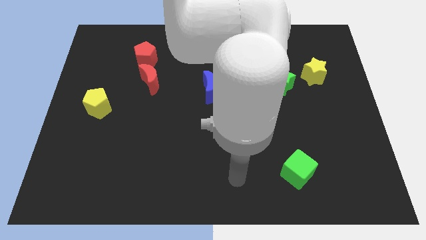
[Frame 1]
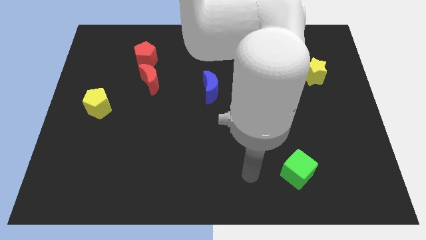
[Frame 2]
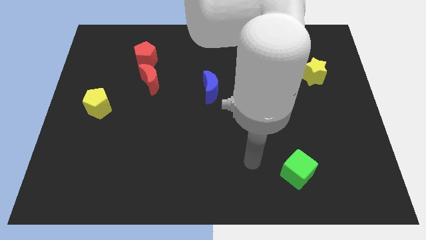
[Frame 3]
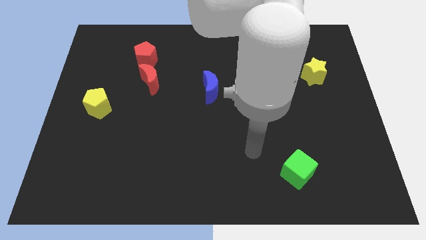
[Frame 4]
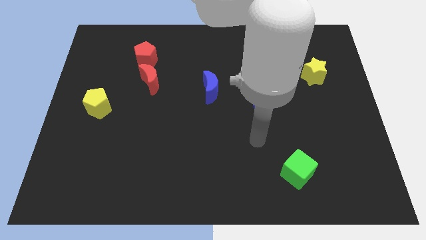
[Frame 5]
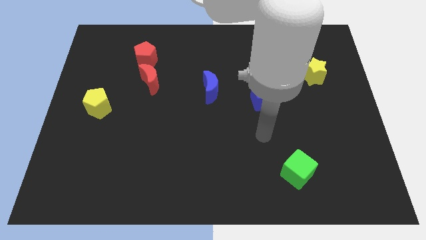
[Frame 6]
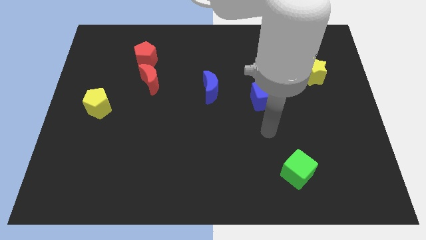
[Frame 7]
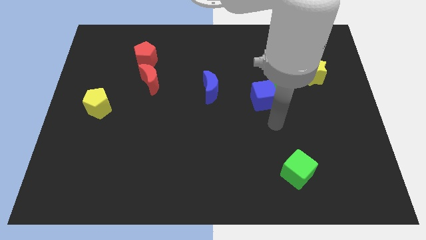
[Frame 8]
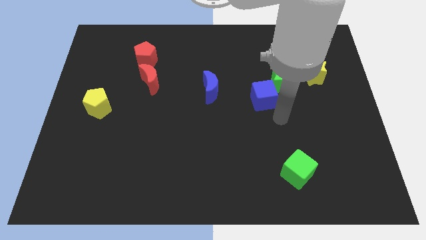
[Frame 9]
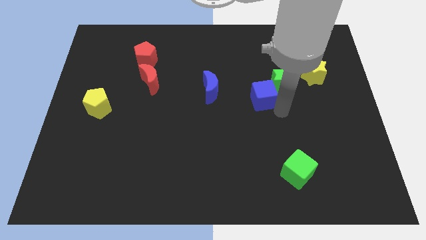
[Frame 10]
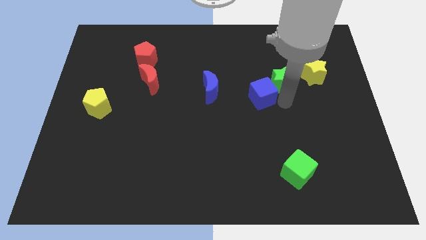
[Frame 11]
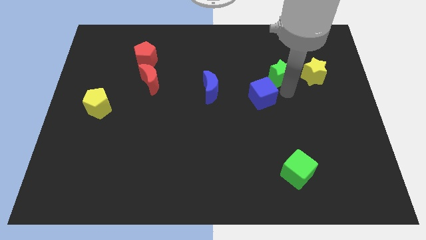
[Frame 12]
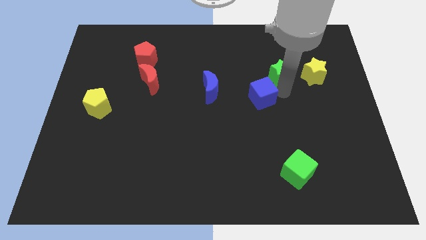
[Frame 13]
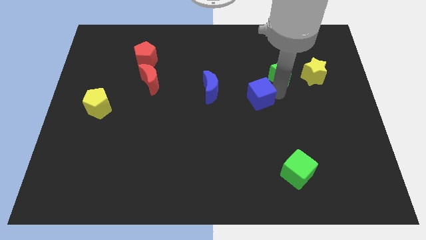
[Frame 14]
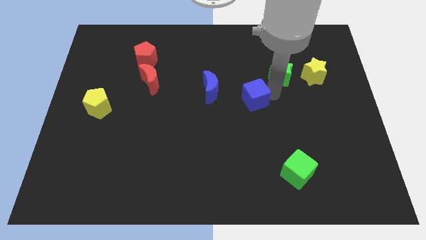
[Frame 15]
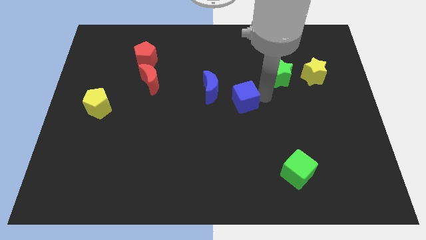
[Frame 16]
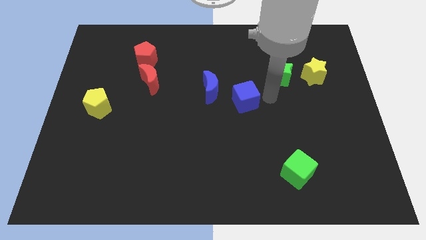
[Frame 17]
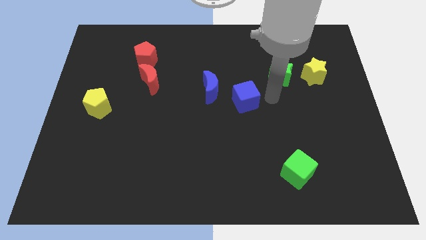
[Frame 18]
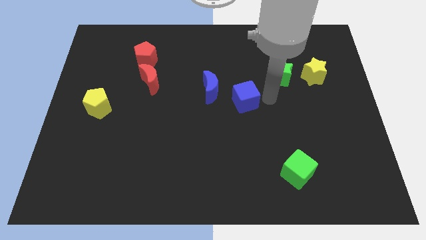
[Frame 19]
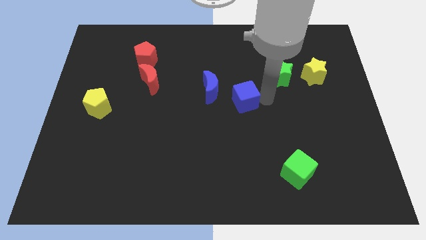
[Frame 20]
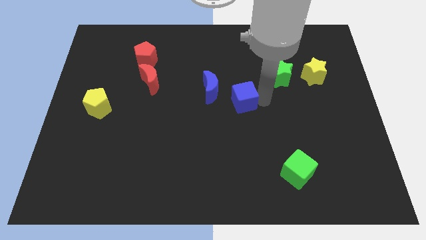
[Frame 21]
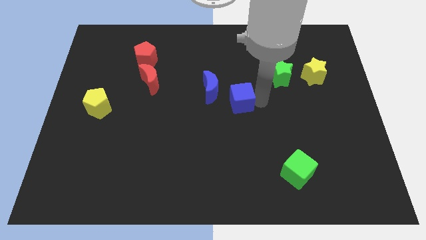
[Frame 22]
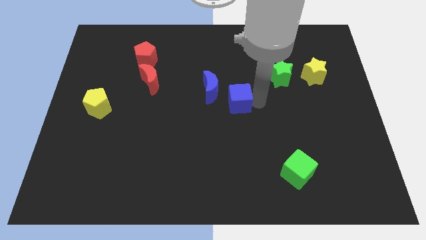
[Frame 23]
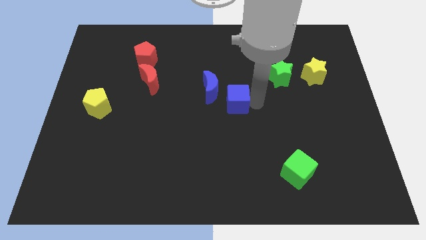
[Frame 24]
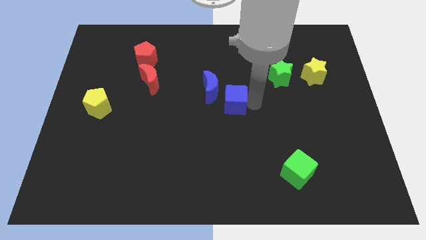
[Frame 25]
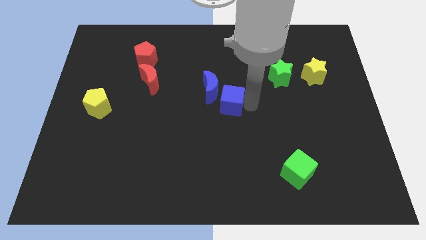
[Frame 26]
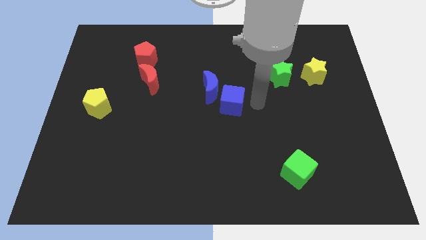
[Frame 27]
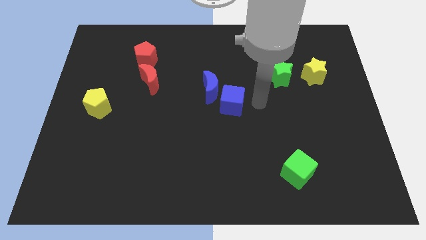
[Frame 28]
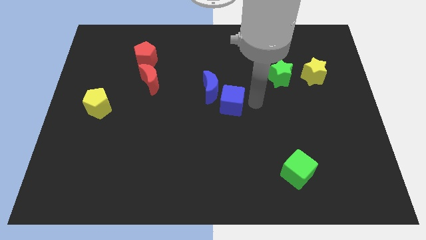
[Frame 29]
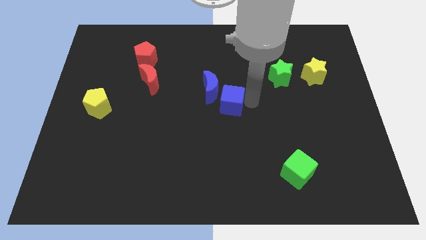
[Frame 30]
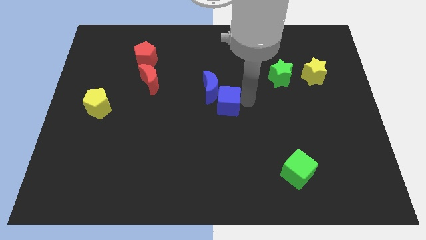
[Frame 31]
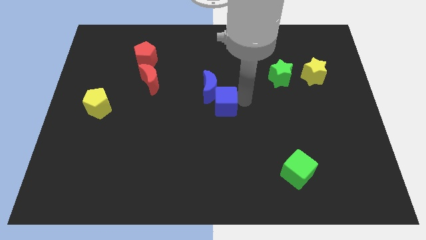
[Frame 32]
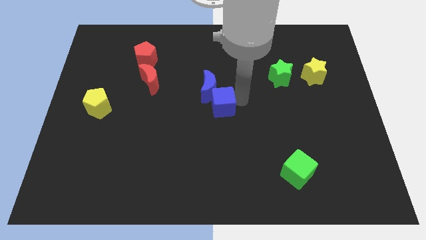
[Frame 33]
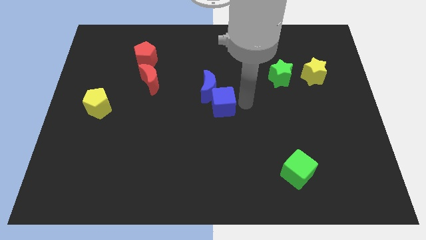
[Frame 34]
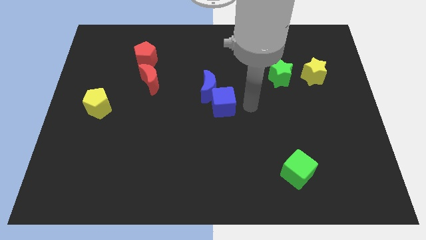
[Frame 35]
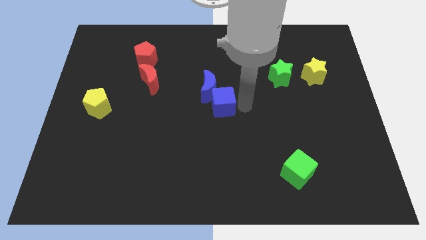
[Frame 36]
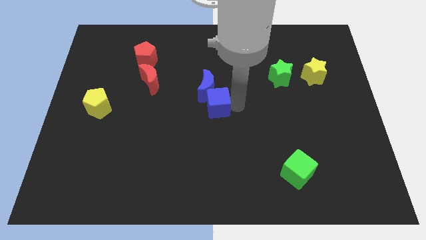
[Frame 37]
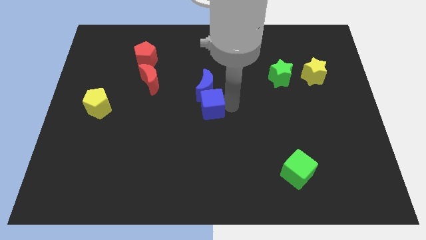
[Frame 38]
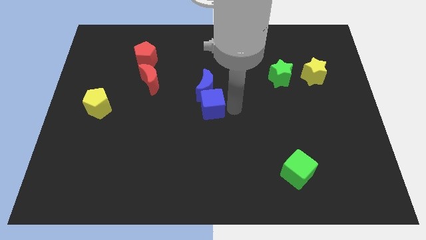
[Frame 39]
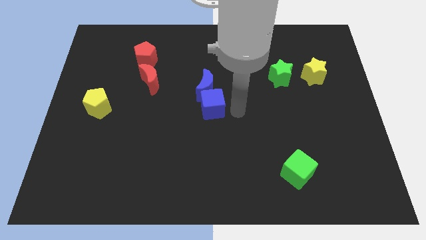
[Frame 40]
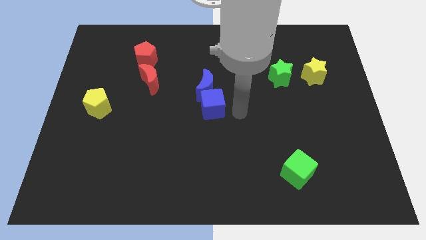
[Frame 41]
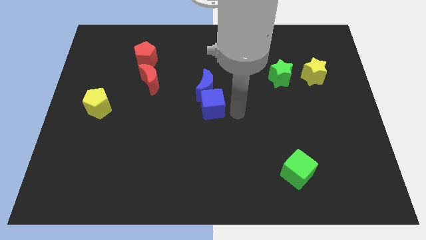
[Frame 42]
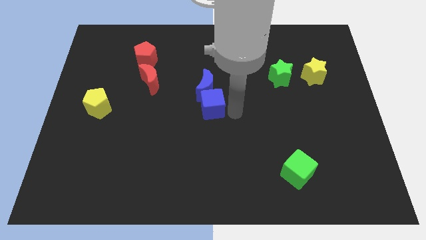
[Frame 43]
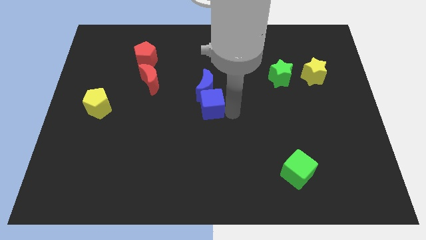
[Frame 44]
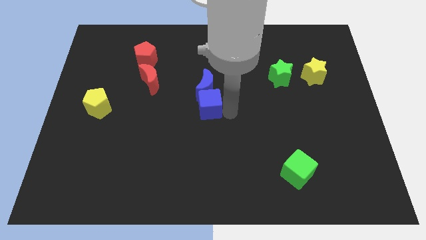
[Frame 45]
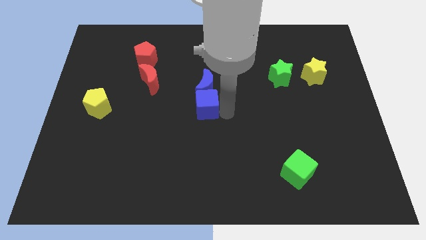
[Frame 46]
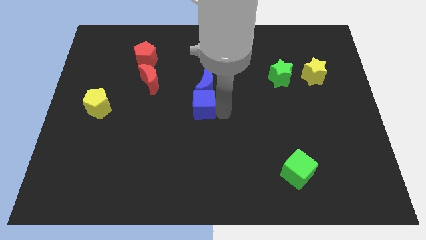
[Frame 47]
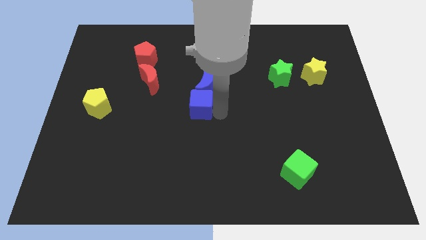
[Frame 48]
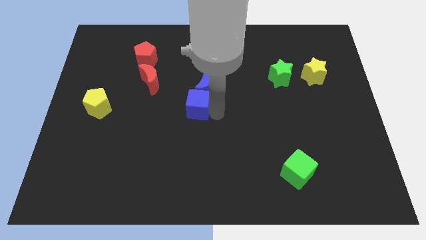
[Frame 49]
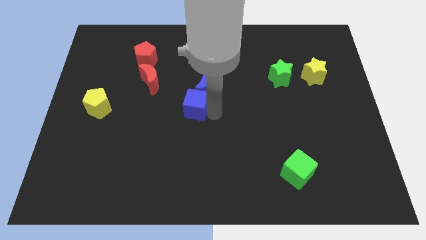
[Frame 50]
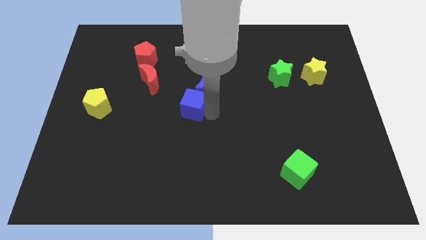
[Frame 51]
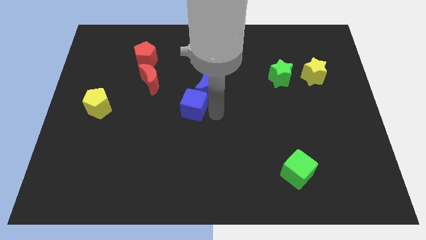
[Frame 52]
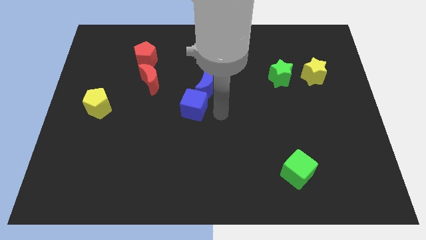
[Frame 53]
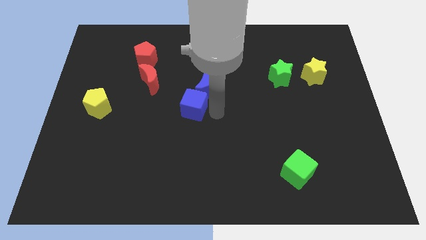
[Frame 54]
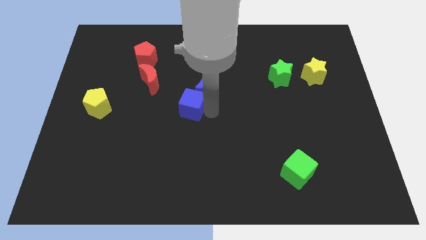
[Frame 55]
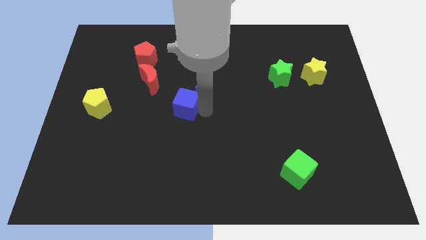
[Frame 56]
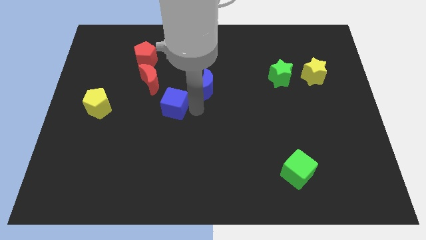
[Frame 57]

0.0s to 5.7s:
move the blue cube left

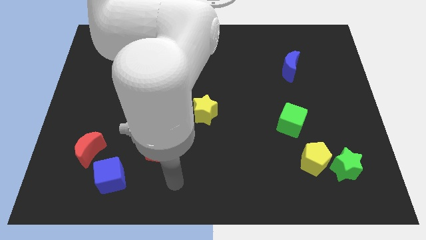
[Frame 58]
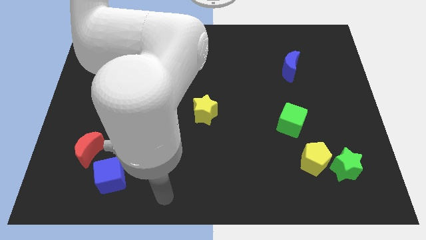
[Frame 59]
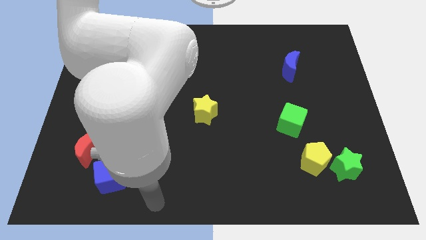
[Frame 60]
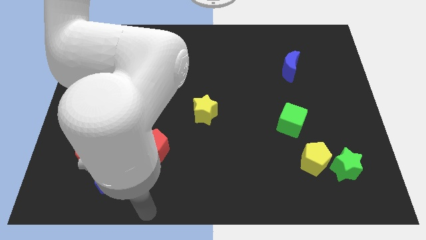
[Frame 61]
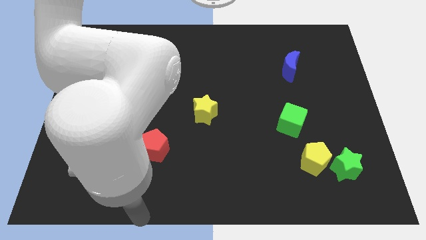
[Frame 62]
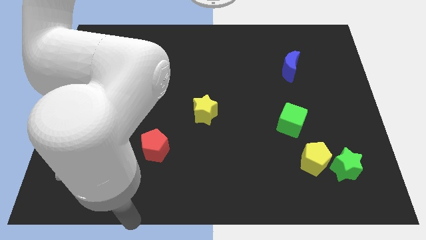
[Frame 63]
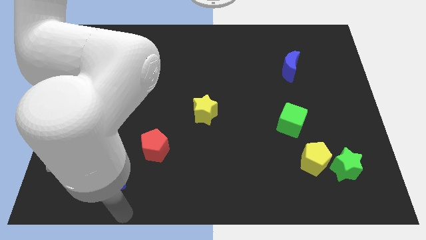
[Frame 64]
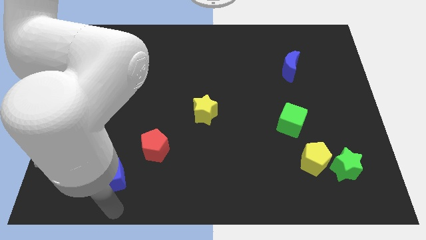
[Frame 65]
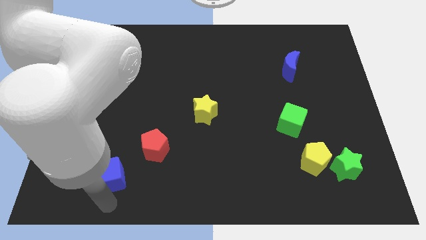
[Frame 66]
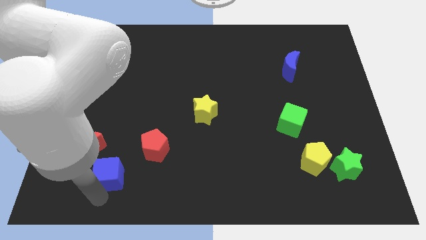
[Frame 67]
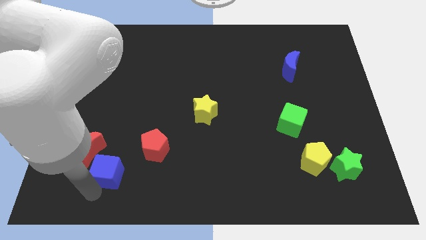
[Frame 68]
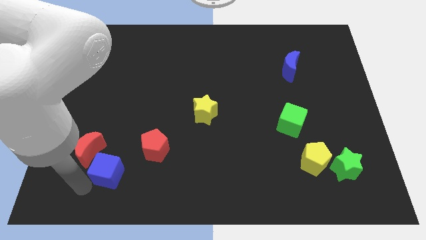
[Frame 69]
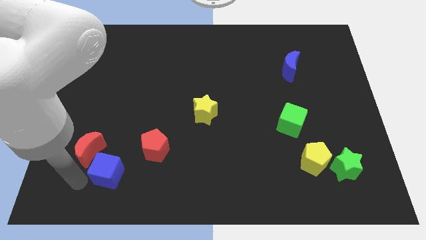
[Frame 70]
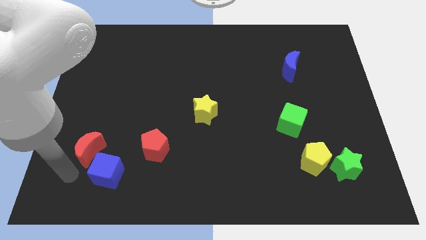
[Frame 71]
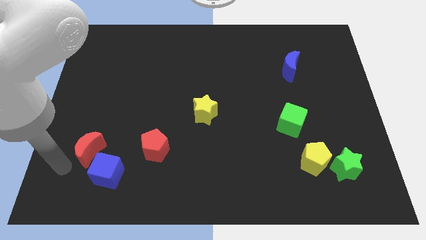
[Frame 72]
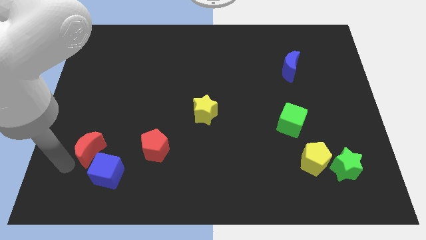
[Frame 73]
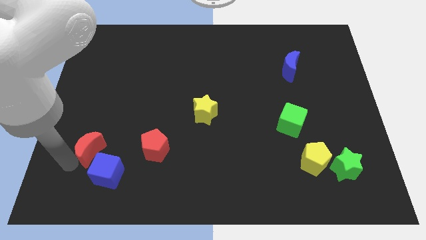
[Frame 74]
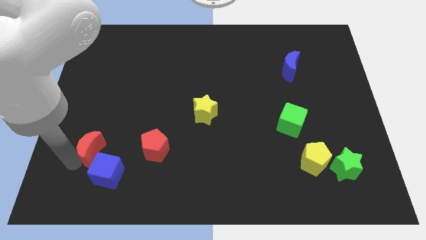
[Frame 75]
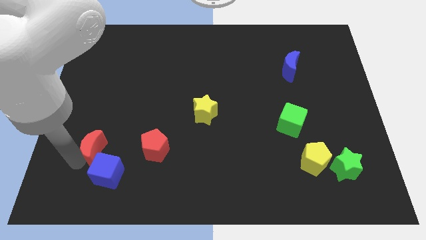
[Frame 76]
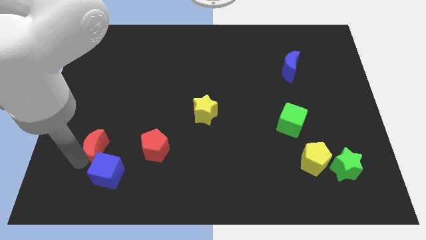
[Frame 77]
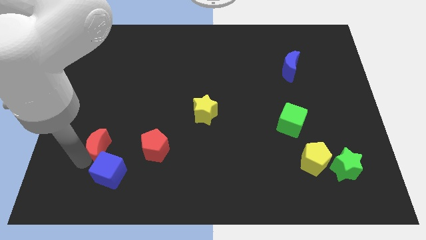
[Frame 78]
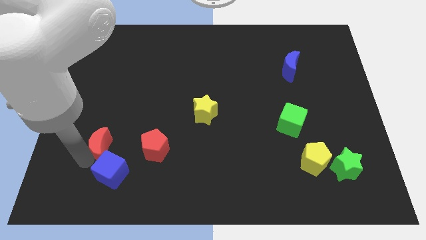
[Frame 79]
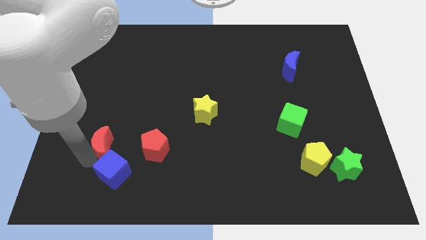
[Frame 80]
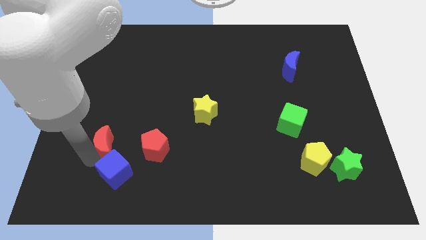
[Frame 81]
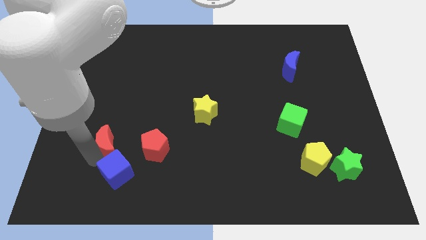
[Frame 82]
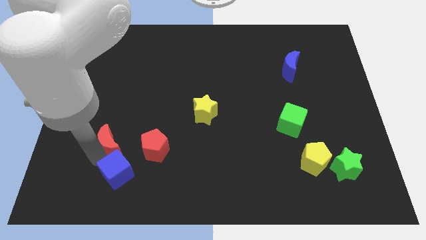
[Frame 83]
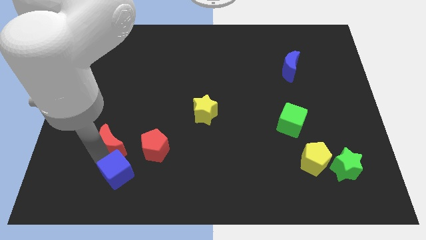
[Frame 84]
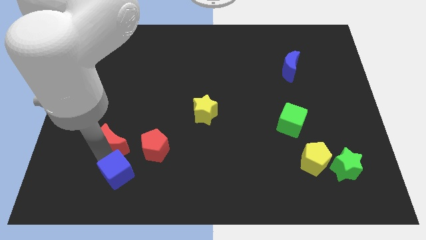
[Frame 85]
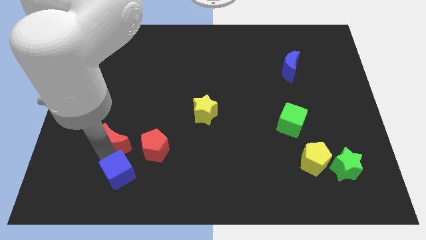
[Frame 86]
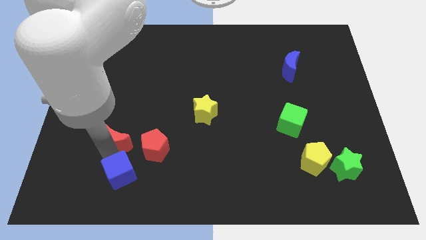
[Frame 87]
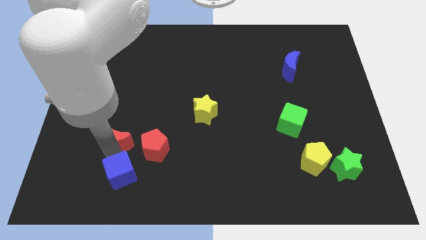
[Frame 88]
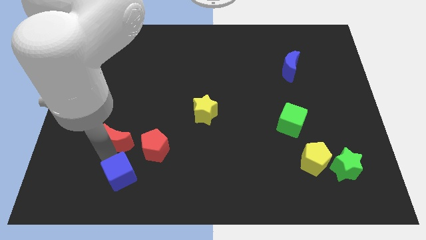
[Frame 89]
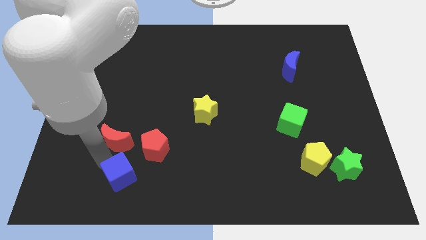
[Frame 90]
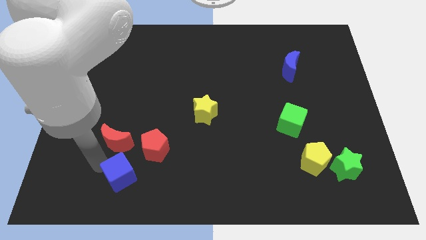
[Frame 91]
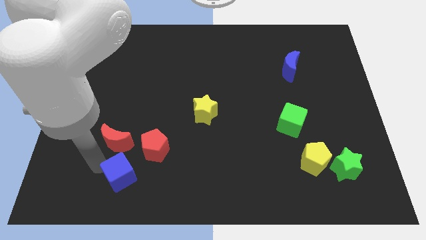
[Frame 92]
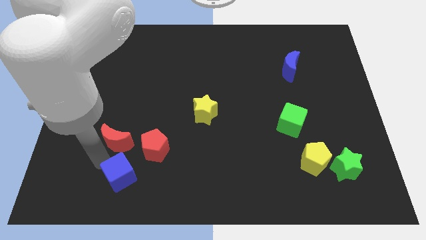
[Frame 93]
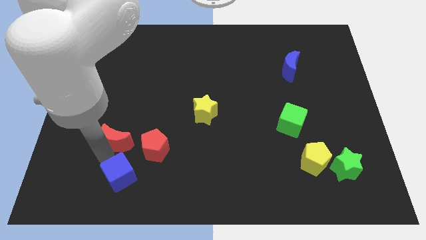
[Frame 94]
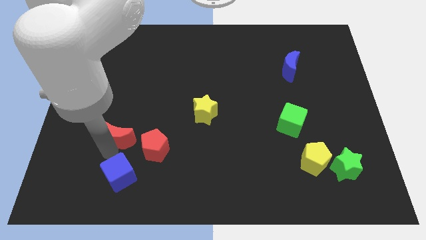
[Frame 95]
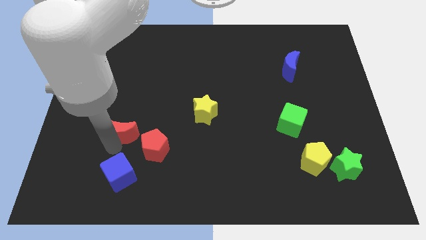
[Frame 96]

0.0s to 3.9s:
move the red moon diagonally upwards and right a bit
